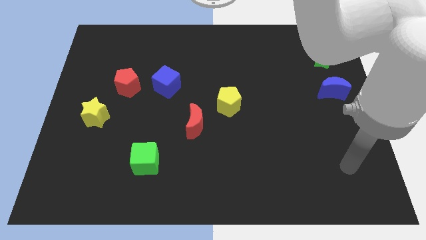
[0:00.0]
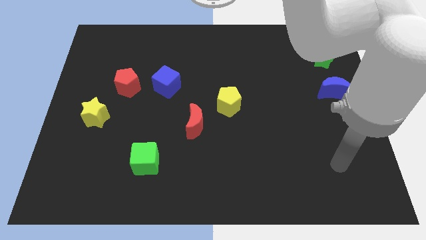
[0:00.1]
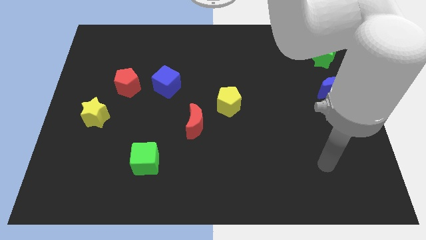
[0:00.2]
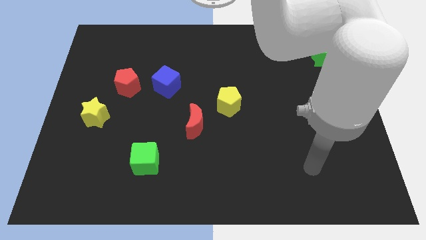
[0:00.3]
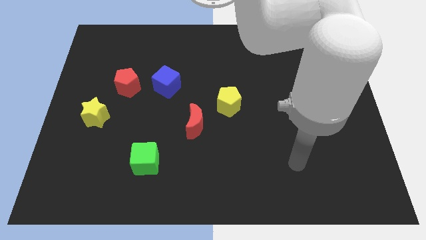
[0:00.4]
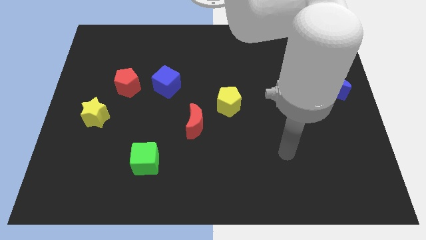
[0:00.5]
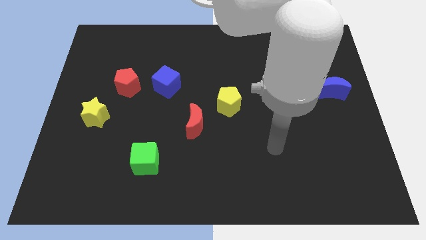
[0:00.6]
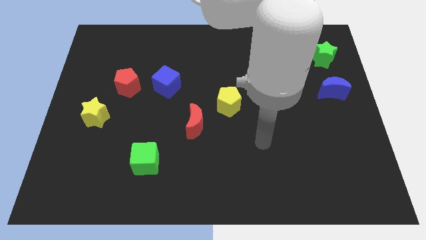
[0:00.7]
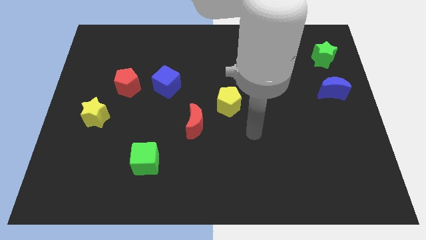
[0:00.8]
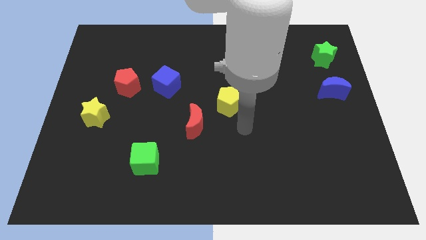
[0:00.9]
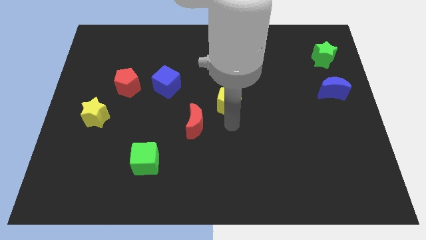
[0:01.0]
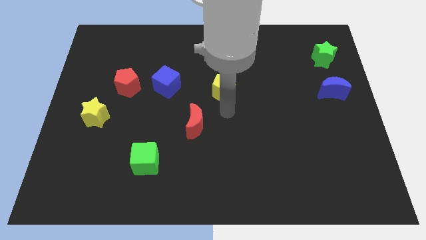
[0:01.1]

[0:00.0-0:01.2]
move the red moon away from the yellow pentagon

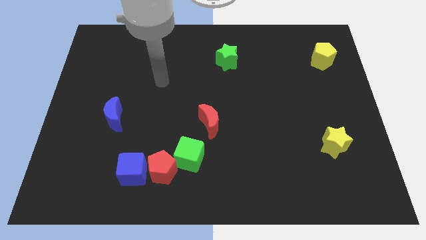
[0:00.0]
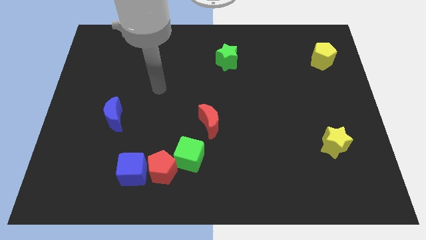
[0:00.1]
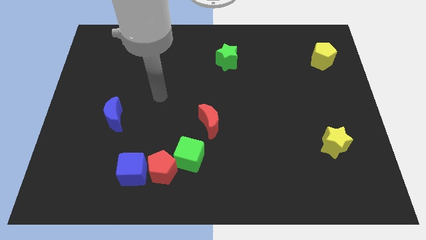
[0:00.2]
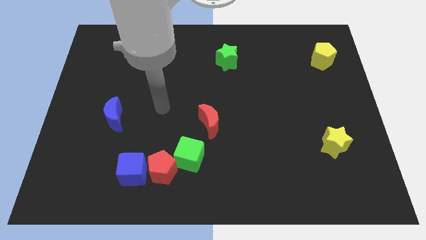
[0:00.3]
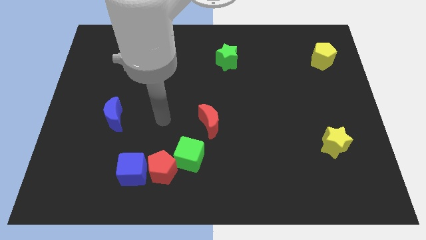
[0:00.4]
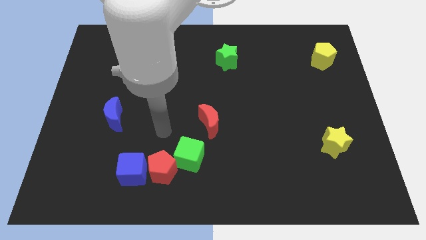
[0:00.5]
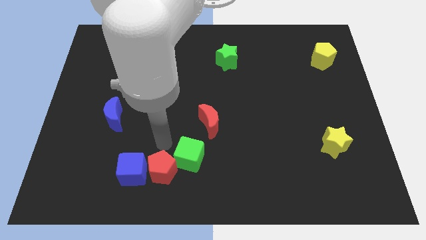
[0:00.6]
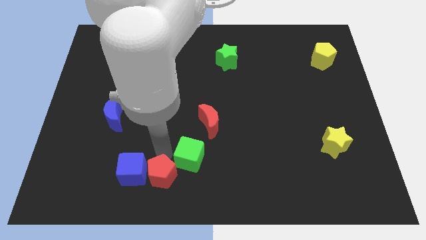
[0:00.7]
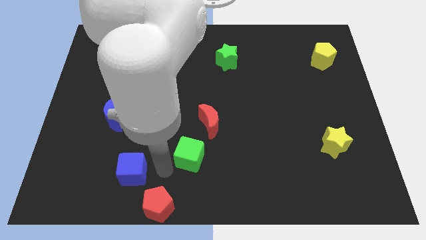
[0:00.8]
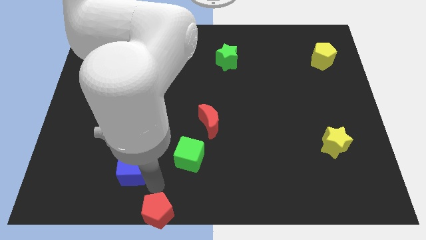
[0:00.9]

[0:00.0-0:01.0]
pull the blue cube apart from the red pentagon

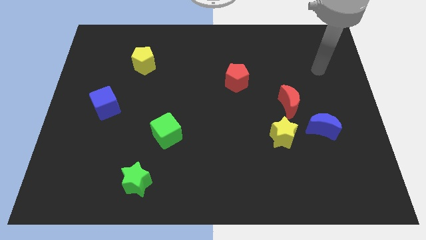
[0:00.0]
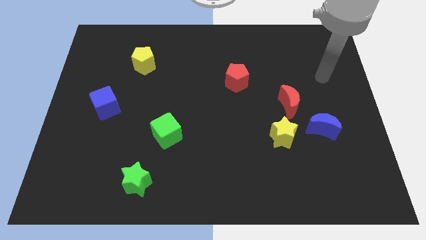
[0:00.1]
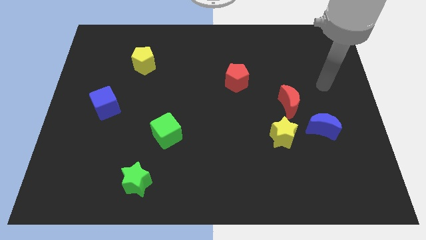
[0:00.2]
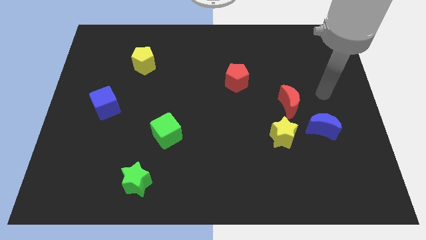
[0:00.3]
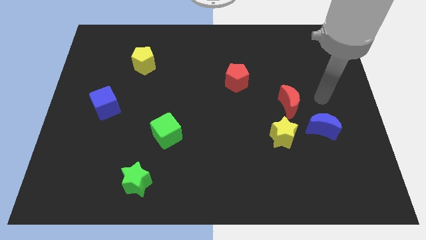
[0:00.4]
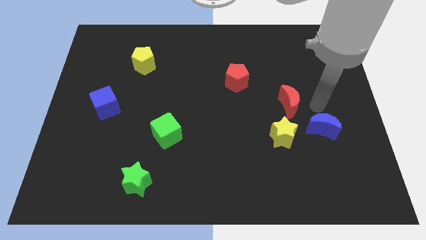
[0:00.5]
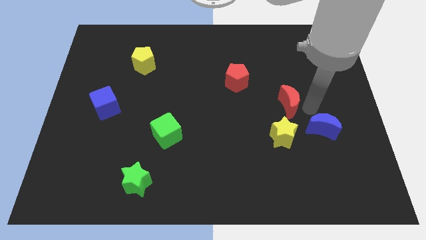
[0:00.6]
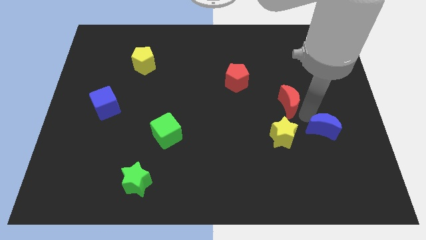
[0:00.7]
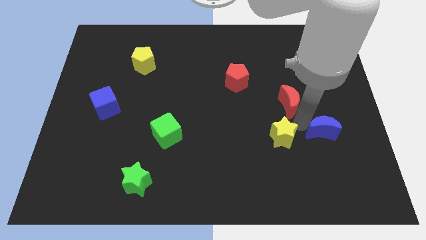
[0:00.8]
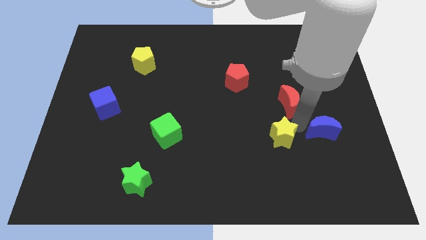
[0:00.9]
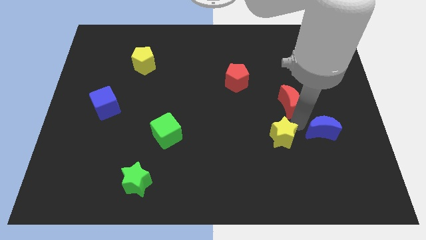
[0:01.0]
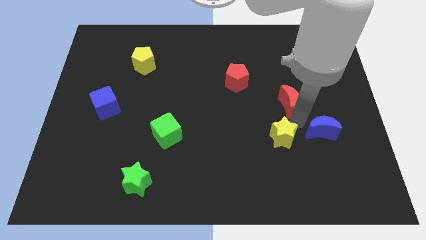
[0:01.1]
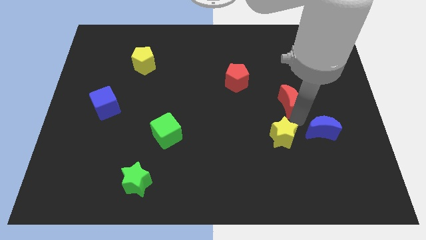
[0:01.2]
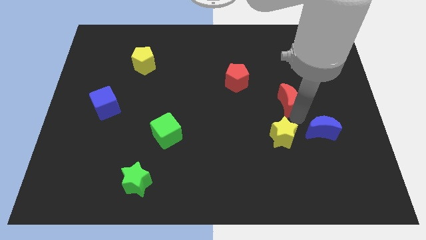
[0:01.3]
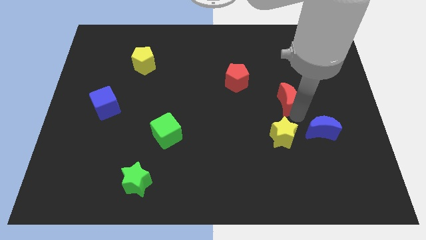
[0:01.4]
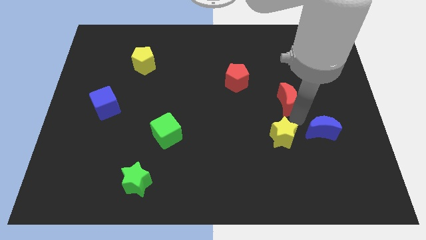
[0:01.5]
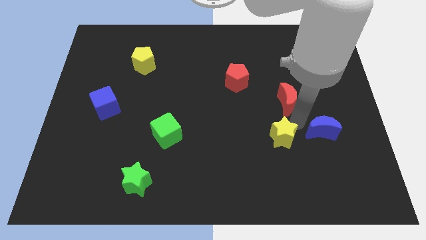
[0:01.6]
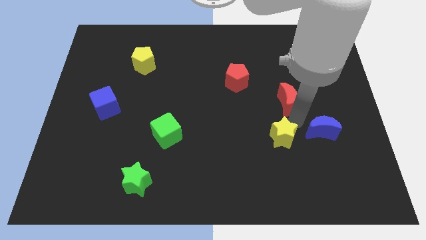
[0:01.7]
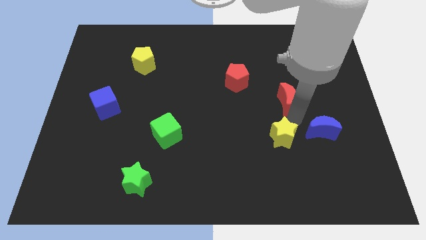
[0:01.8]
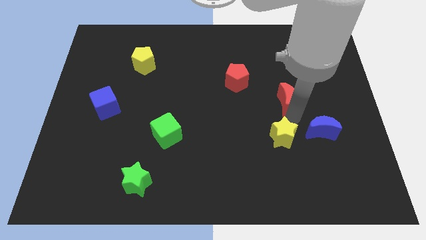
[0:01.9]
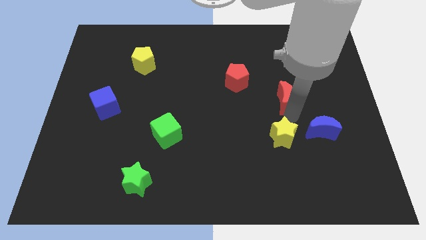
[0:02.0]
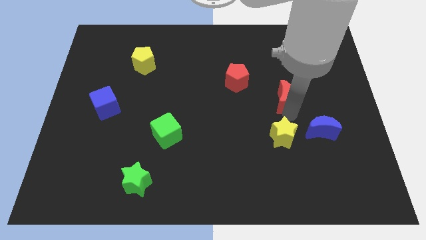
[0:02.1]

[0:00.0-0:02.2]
separate the red moon from the yellow star and blue moon

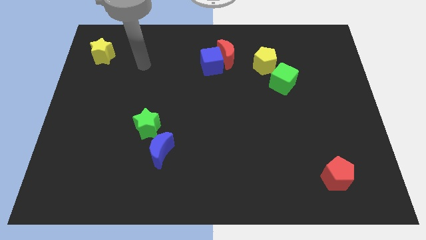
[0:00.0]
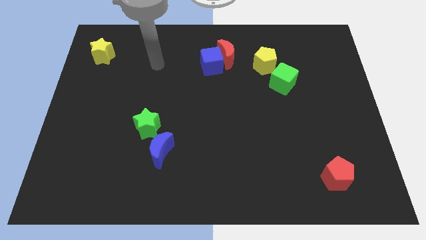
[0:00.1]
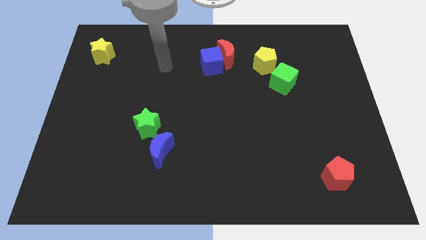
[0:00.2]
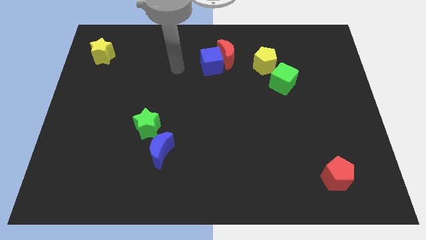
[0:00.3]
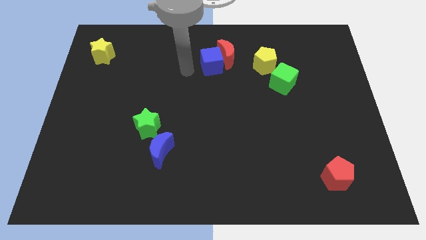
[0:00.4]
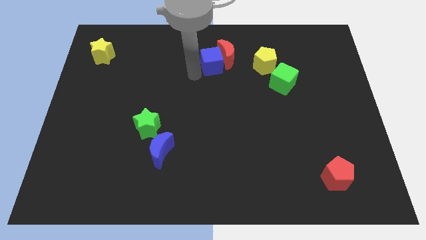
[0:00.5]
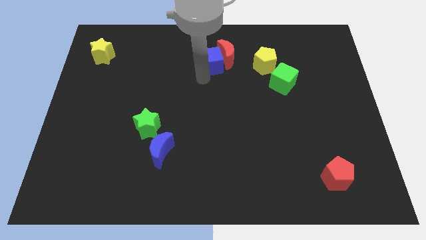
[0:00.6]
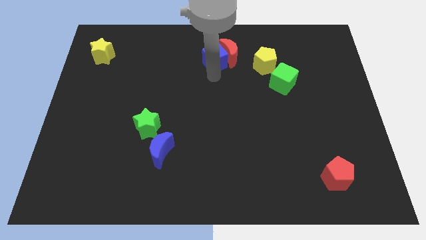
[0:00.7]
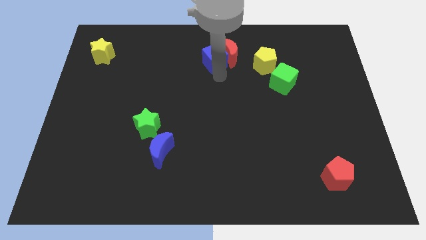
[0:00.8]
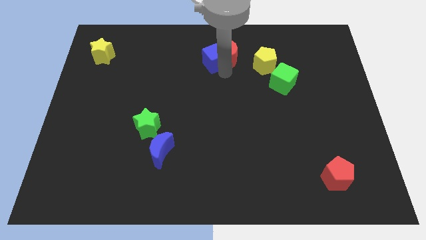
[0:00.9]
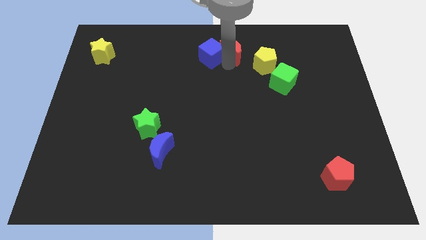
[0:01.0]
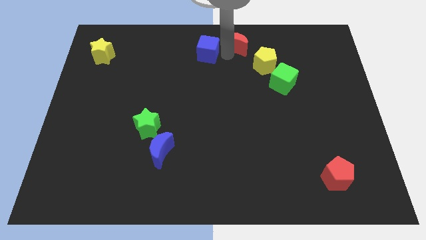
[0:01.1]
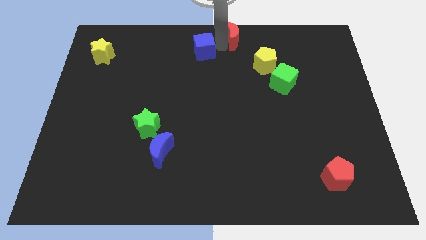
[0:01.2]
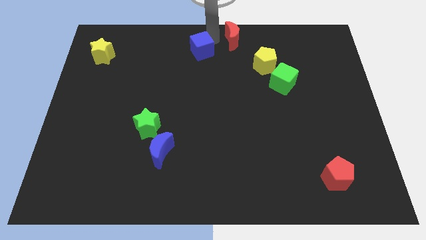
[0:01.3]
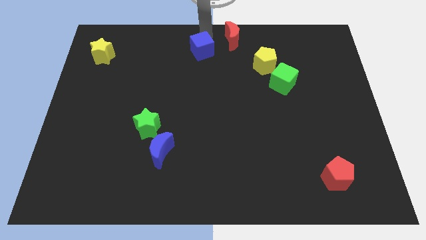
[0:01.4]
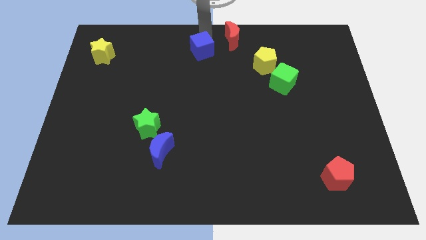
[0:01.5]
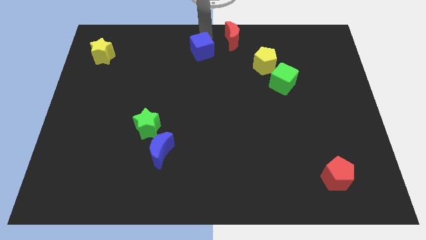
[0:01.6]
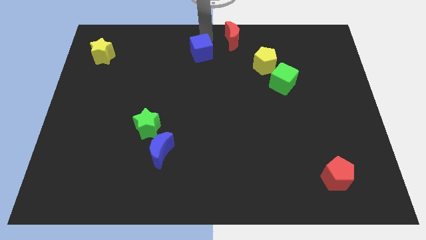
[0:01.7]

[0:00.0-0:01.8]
move the blue cube away from the red moon

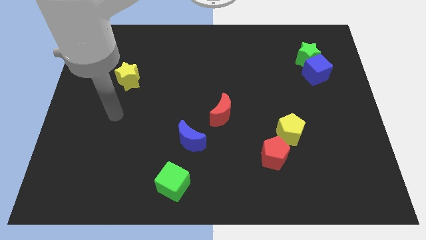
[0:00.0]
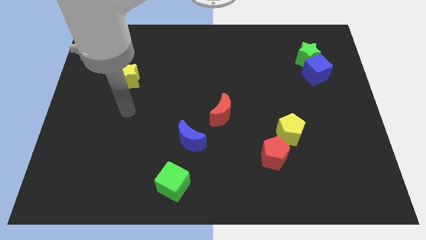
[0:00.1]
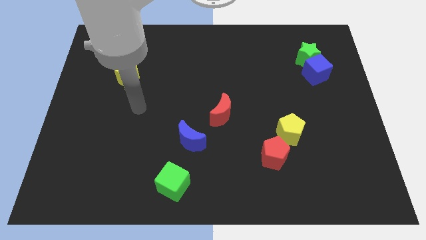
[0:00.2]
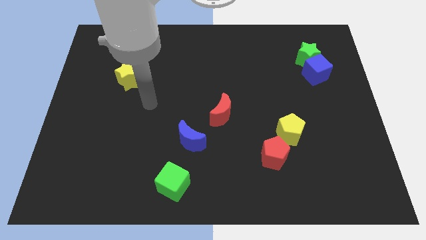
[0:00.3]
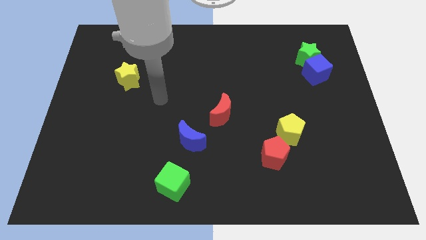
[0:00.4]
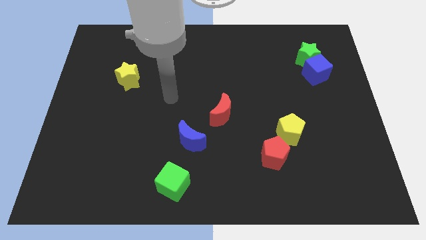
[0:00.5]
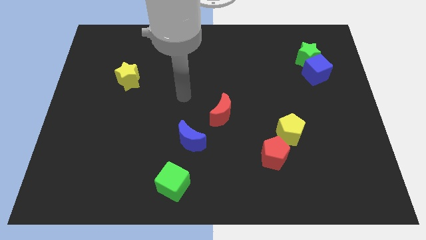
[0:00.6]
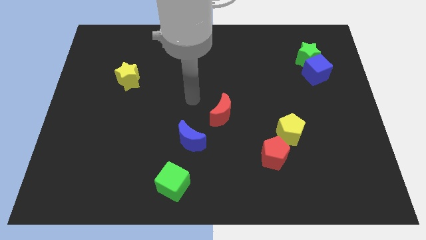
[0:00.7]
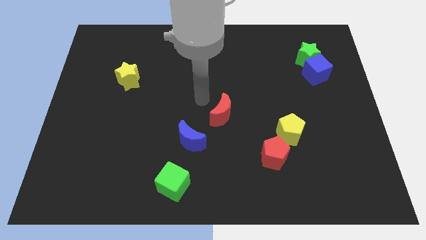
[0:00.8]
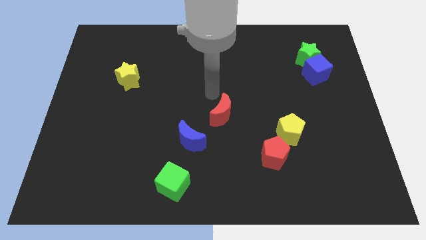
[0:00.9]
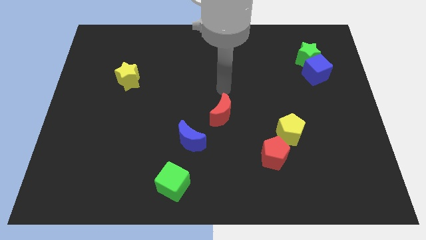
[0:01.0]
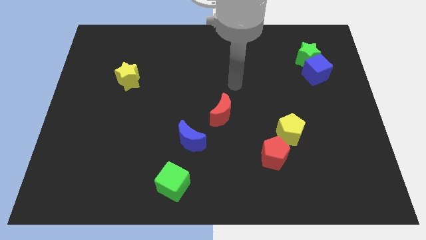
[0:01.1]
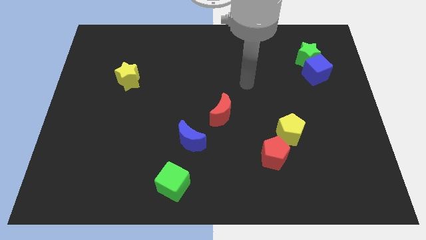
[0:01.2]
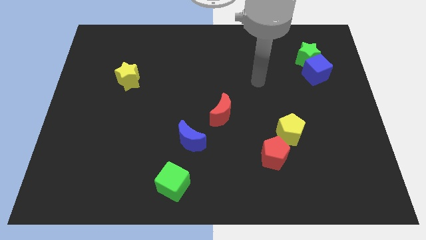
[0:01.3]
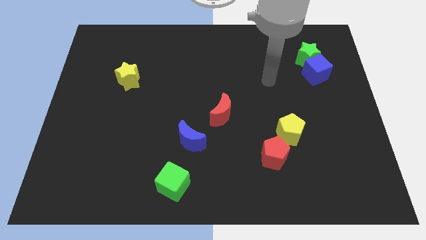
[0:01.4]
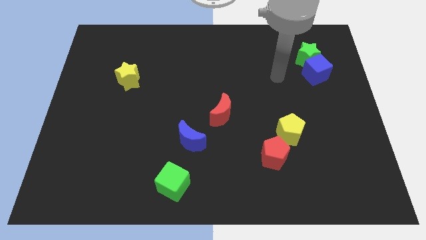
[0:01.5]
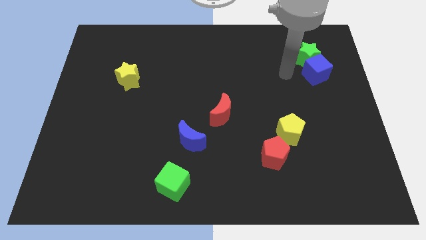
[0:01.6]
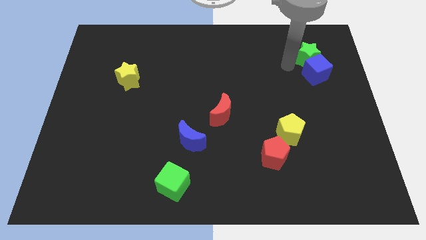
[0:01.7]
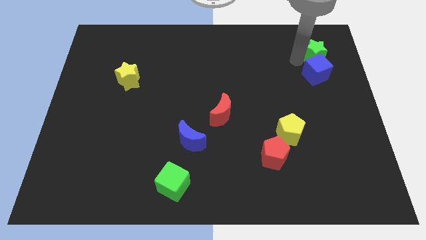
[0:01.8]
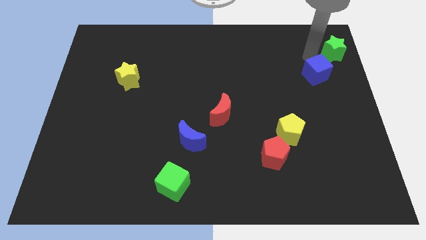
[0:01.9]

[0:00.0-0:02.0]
separate the blue cube from the green star

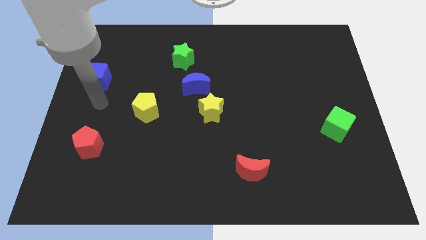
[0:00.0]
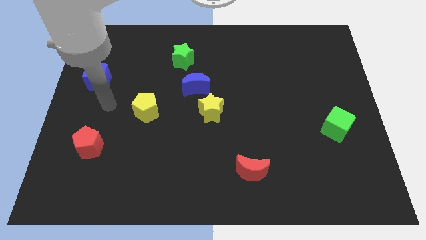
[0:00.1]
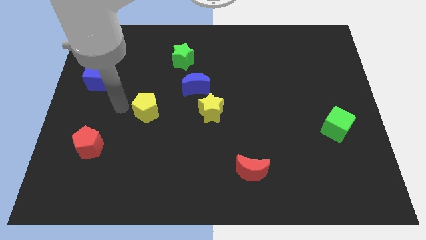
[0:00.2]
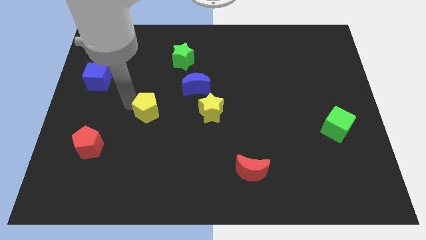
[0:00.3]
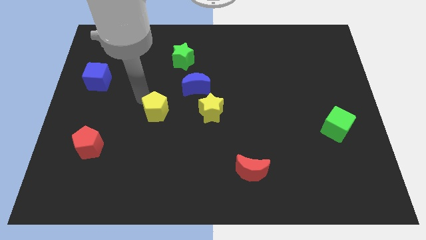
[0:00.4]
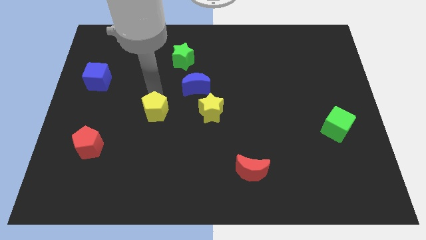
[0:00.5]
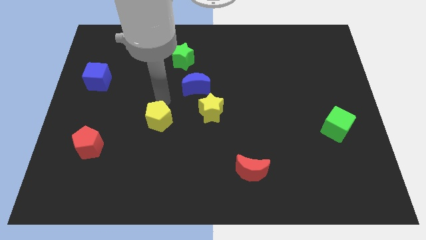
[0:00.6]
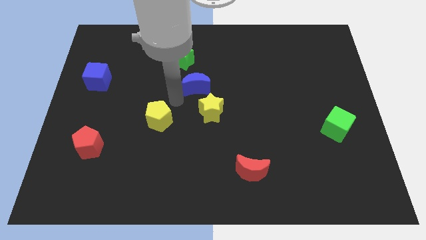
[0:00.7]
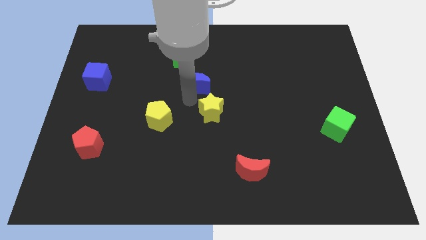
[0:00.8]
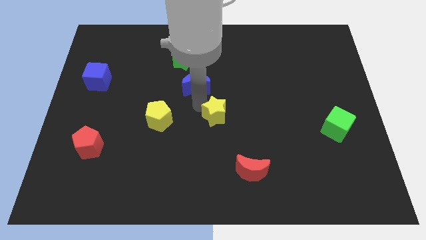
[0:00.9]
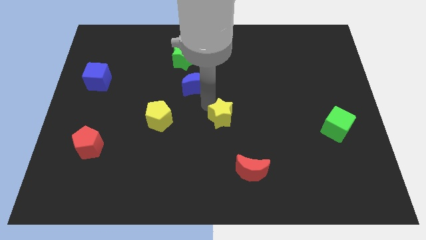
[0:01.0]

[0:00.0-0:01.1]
move the blue moon away from the yellow star
